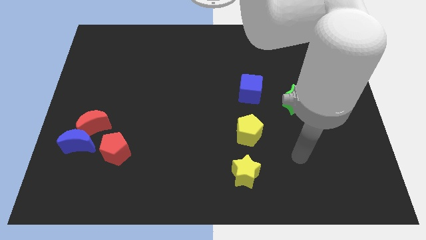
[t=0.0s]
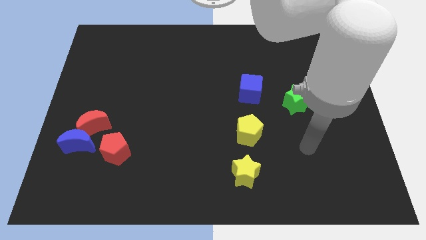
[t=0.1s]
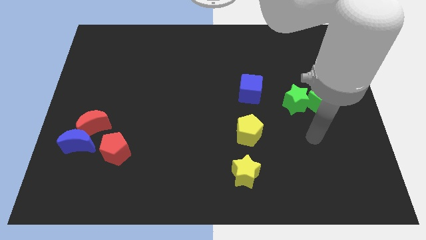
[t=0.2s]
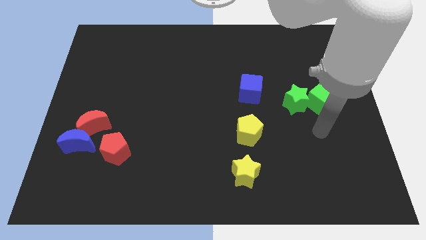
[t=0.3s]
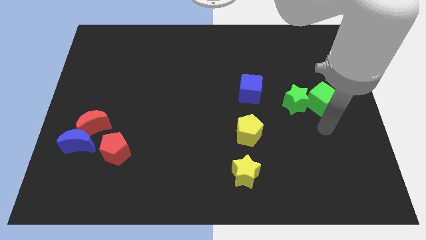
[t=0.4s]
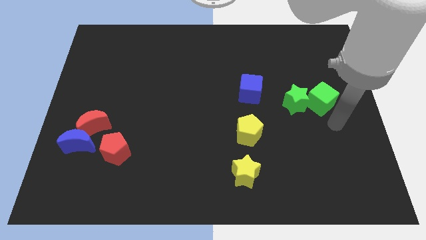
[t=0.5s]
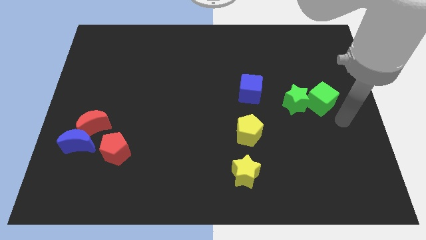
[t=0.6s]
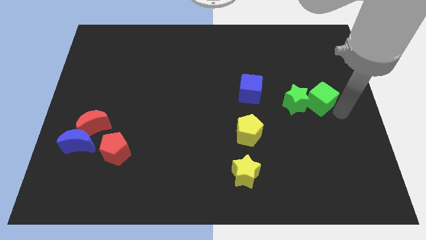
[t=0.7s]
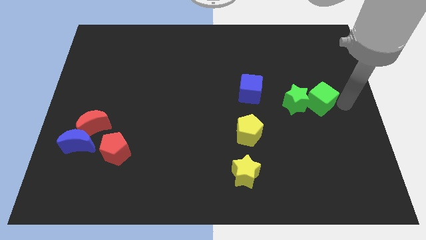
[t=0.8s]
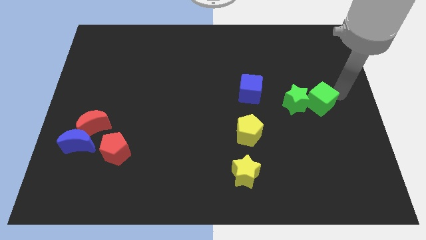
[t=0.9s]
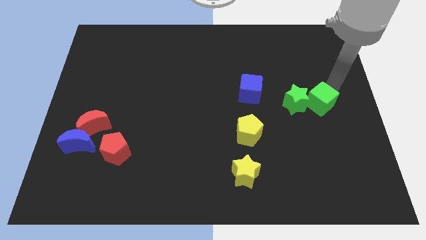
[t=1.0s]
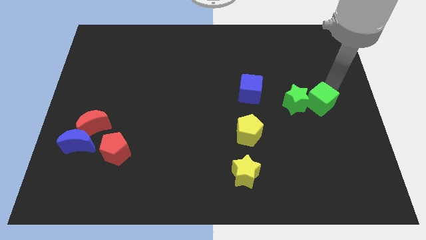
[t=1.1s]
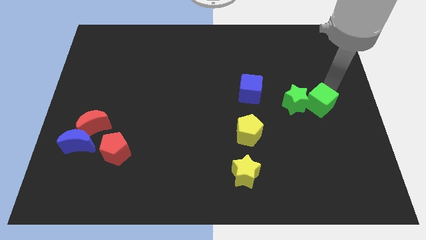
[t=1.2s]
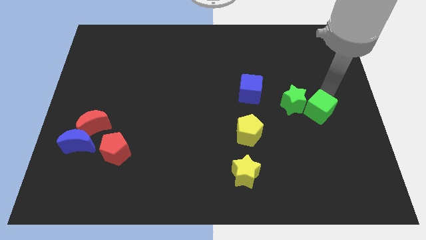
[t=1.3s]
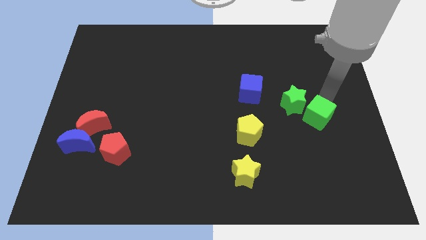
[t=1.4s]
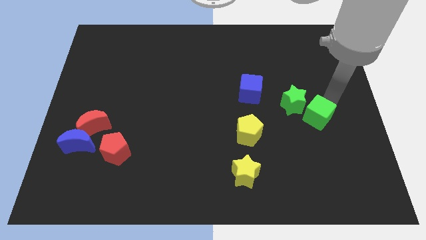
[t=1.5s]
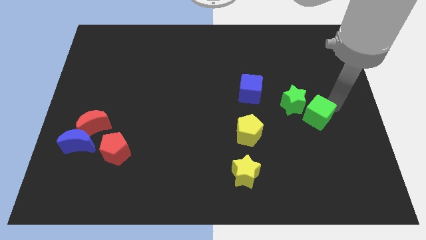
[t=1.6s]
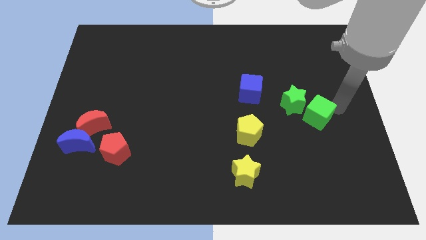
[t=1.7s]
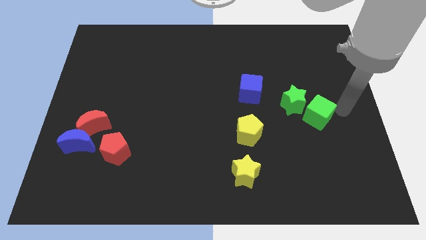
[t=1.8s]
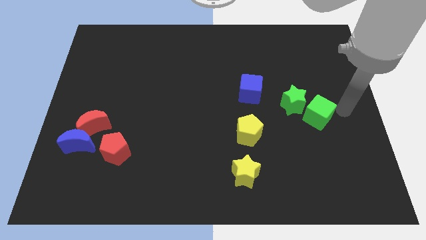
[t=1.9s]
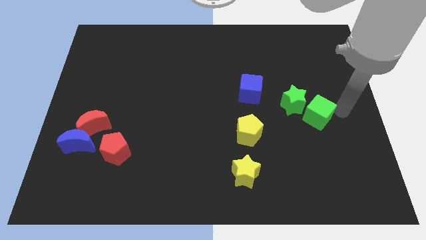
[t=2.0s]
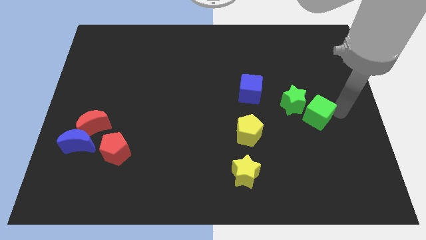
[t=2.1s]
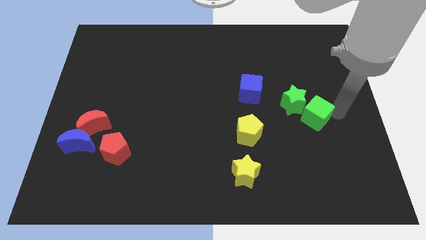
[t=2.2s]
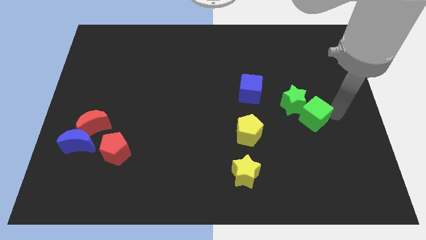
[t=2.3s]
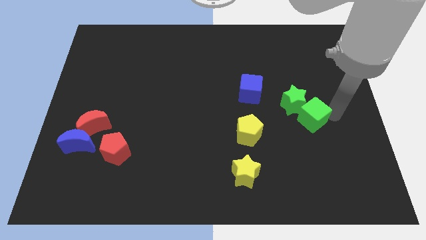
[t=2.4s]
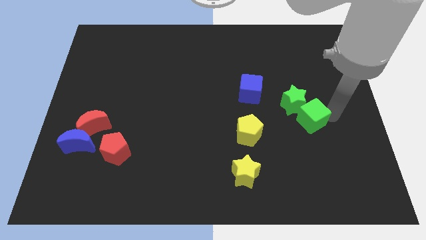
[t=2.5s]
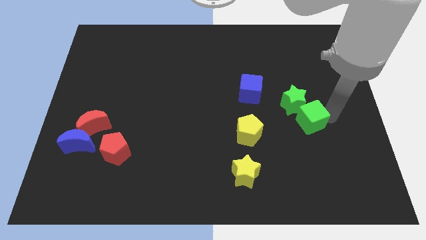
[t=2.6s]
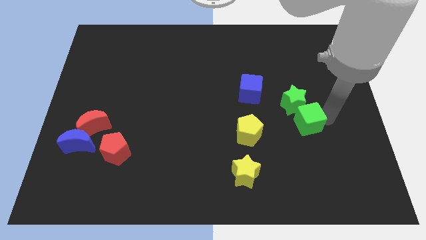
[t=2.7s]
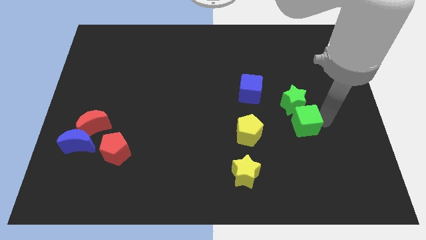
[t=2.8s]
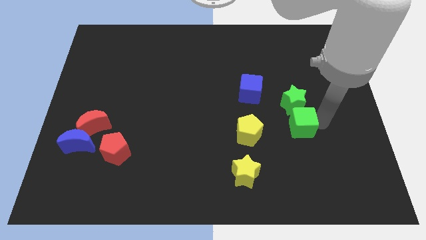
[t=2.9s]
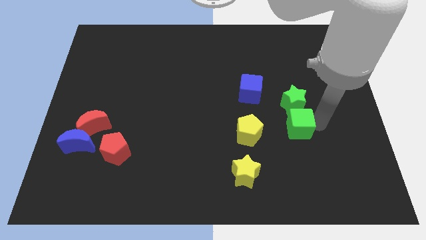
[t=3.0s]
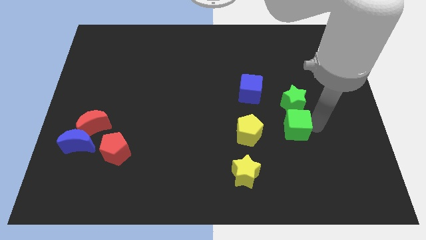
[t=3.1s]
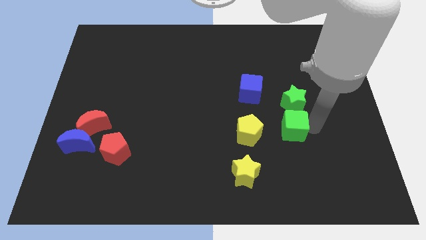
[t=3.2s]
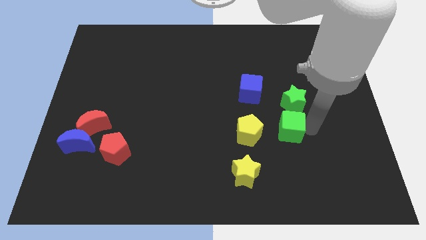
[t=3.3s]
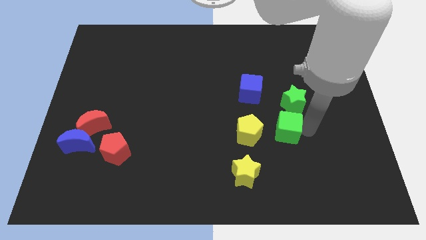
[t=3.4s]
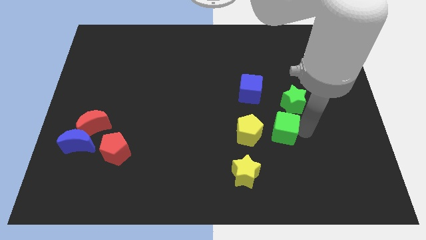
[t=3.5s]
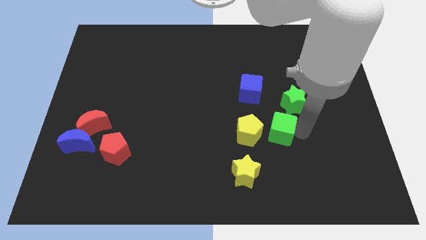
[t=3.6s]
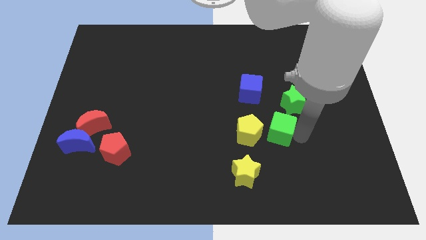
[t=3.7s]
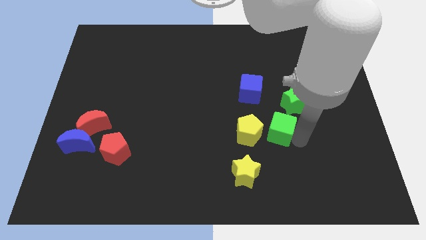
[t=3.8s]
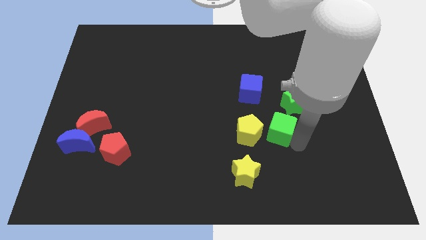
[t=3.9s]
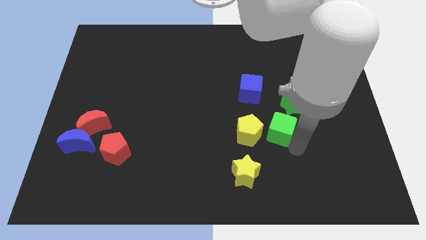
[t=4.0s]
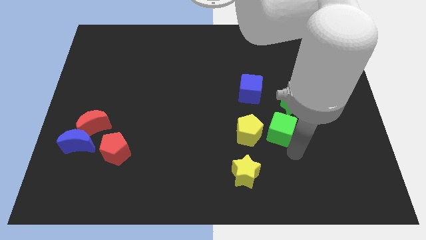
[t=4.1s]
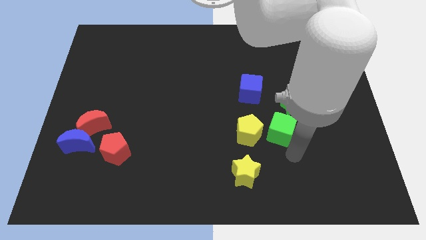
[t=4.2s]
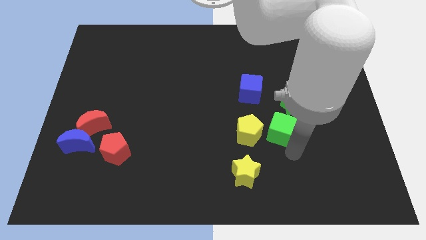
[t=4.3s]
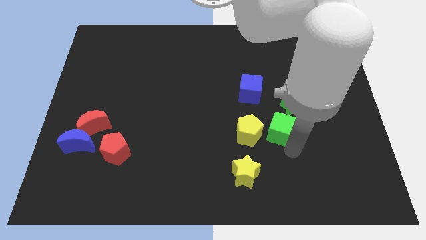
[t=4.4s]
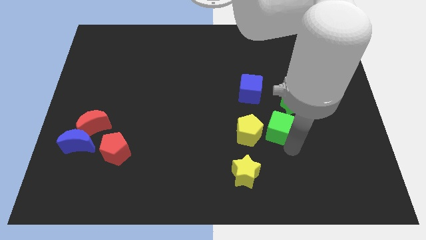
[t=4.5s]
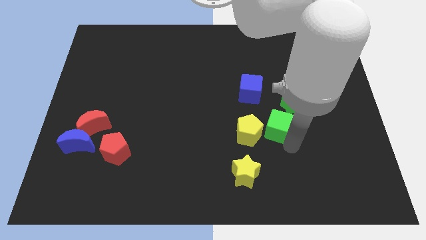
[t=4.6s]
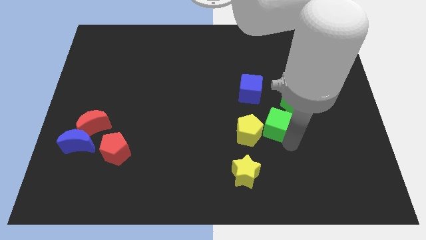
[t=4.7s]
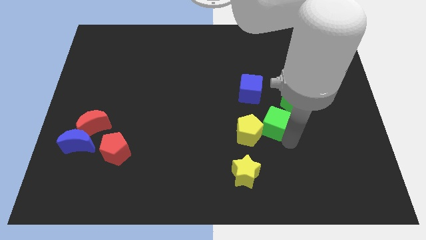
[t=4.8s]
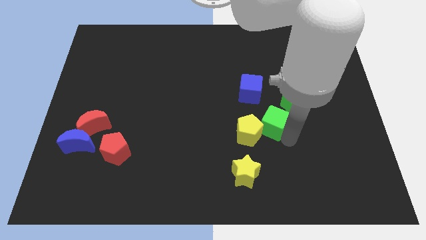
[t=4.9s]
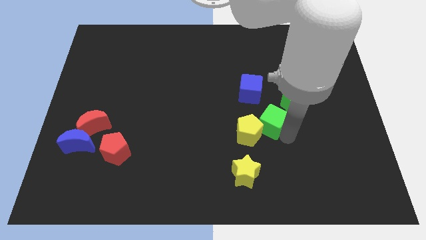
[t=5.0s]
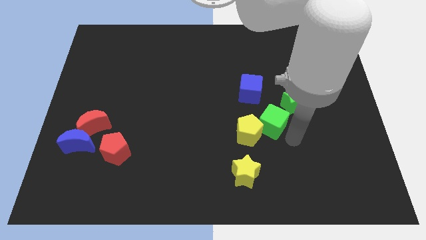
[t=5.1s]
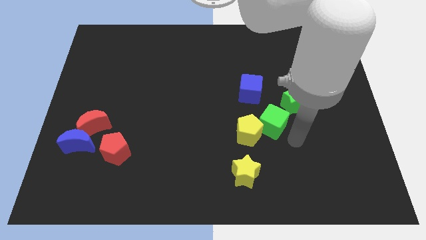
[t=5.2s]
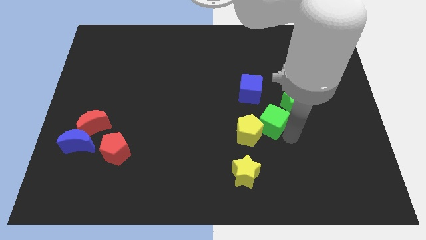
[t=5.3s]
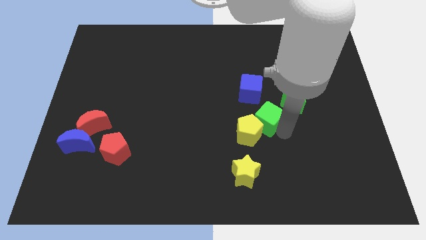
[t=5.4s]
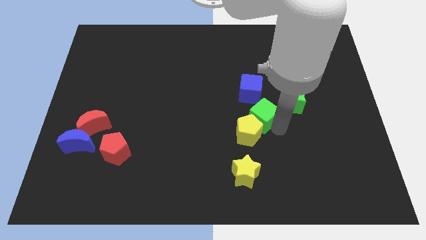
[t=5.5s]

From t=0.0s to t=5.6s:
push the green cube to the center

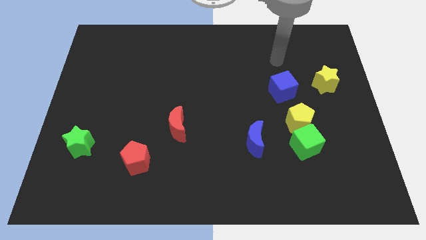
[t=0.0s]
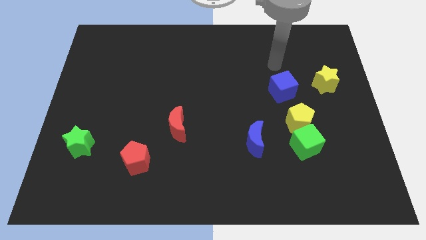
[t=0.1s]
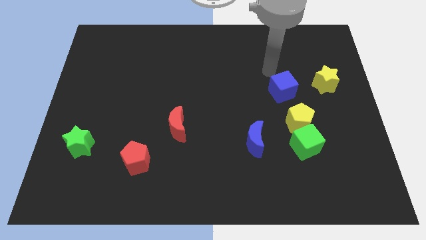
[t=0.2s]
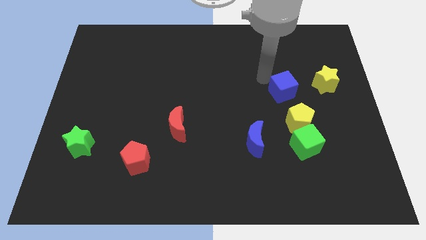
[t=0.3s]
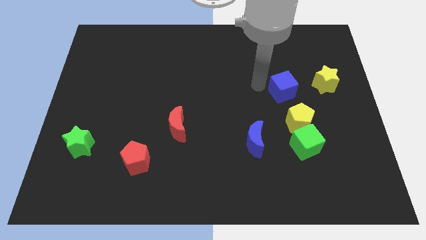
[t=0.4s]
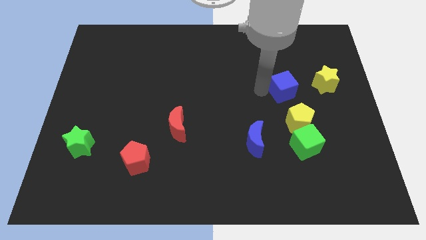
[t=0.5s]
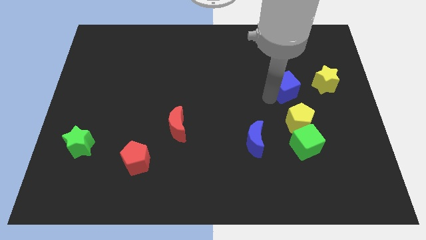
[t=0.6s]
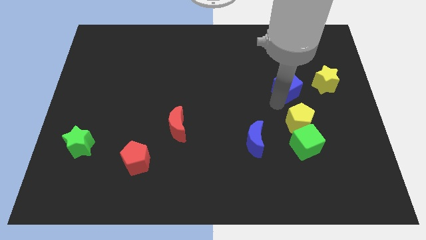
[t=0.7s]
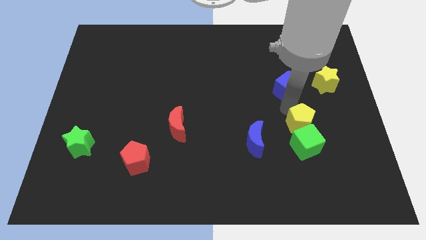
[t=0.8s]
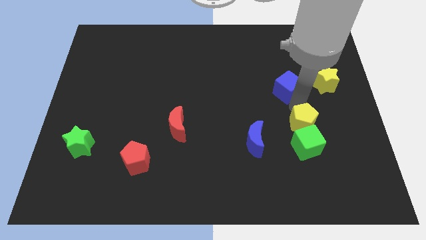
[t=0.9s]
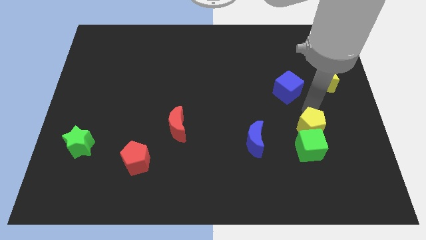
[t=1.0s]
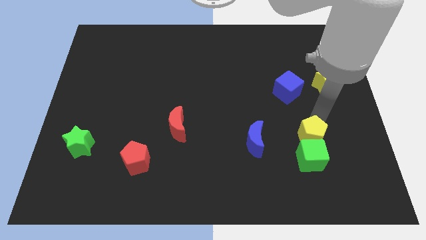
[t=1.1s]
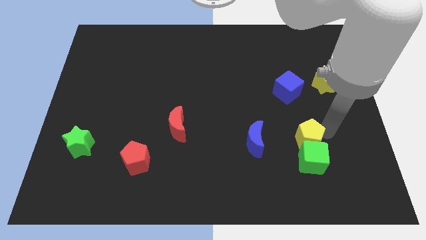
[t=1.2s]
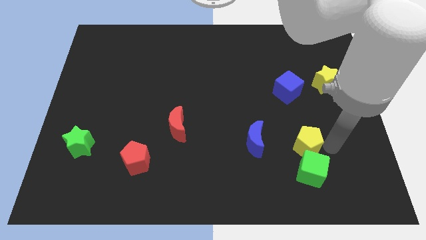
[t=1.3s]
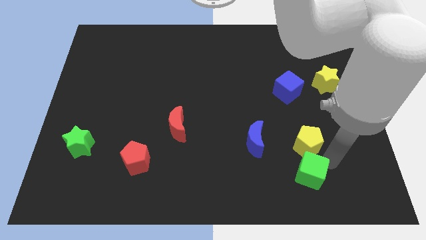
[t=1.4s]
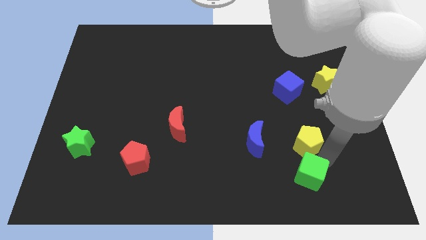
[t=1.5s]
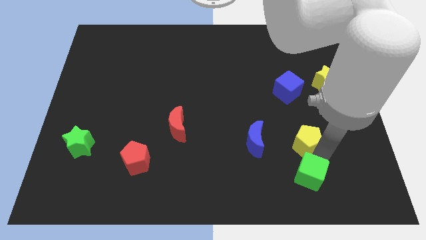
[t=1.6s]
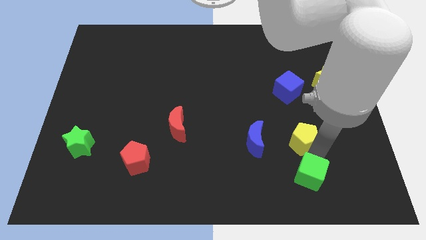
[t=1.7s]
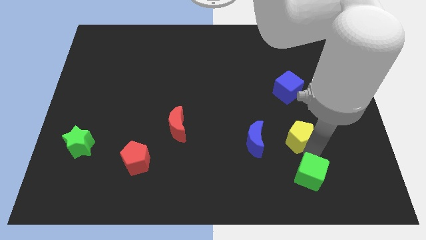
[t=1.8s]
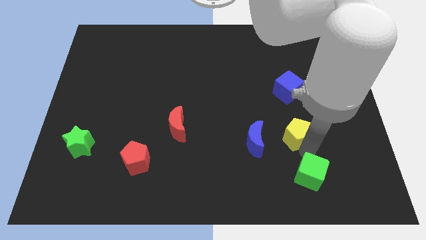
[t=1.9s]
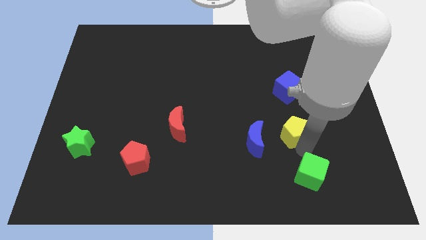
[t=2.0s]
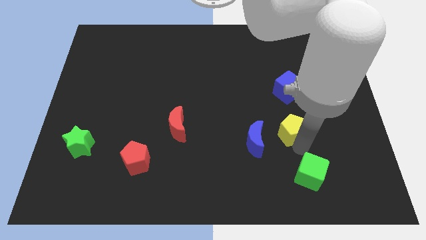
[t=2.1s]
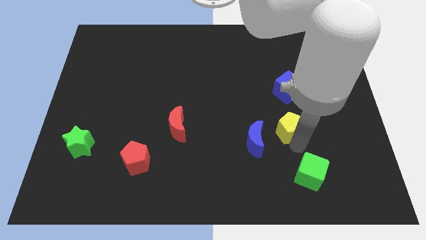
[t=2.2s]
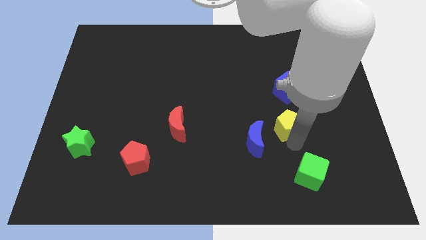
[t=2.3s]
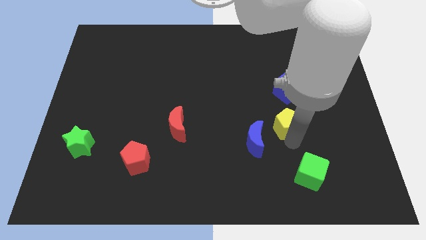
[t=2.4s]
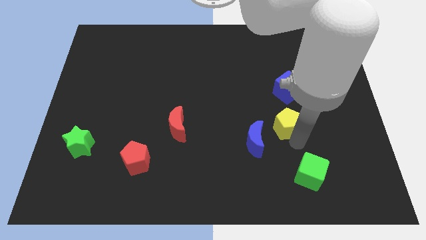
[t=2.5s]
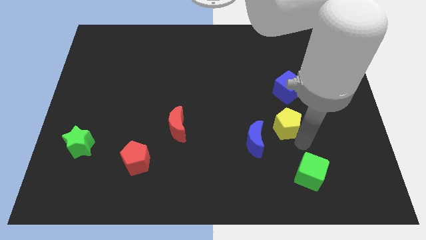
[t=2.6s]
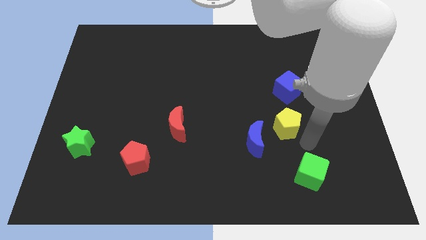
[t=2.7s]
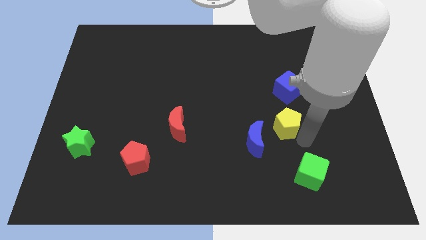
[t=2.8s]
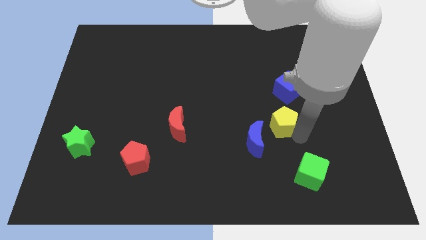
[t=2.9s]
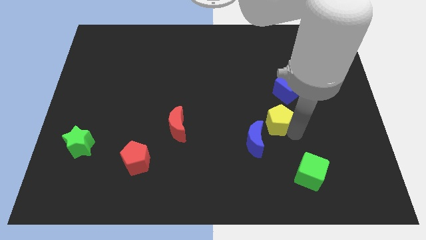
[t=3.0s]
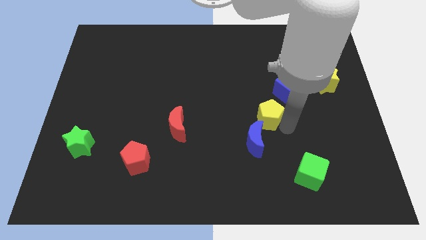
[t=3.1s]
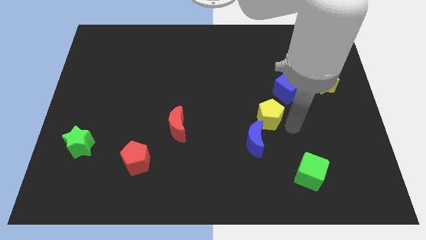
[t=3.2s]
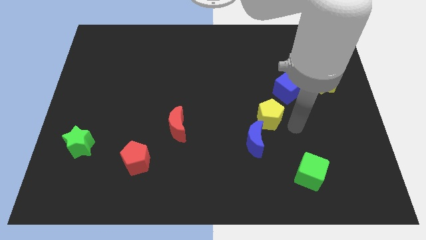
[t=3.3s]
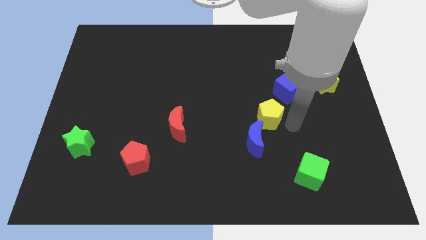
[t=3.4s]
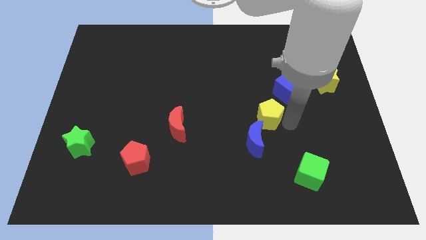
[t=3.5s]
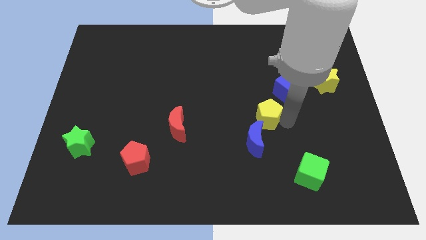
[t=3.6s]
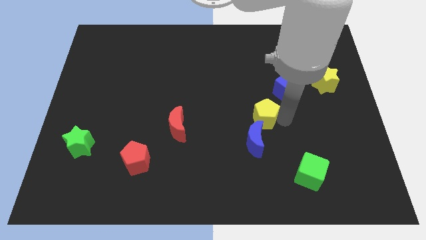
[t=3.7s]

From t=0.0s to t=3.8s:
move the yellow pentagon to the center of the board
